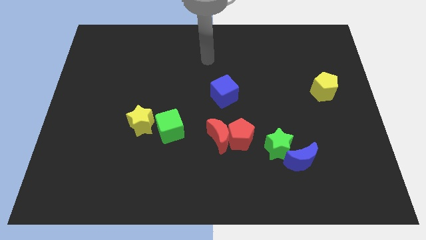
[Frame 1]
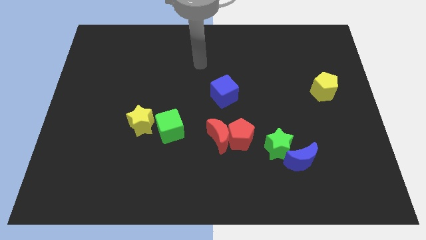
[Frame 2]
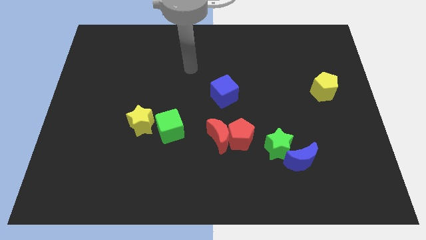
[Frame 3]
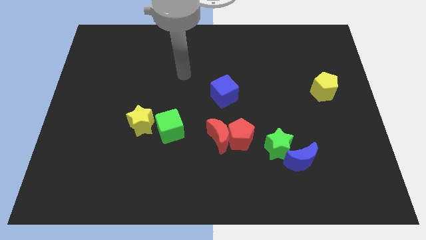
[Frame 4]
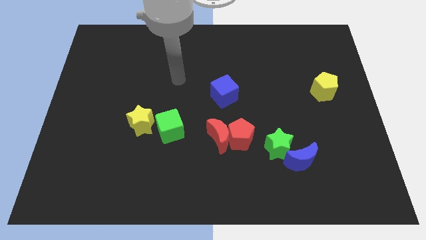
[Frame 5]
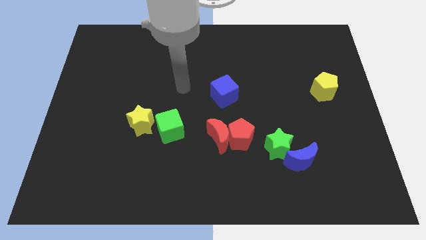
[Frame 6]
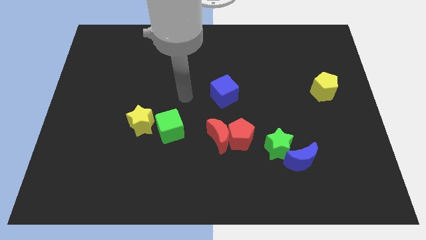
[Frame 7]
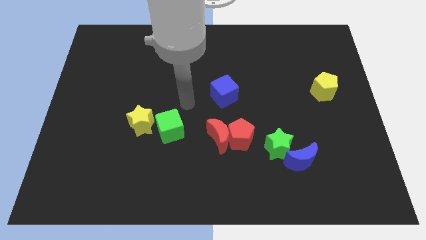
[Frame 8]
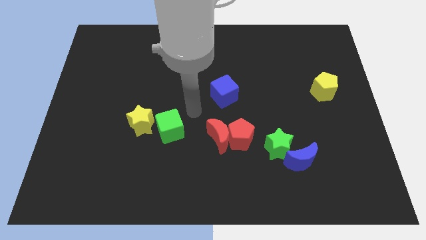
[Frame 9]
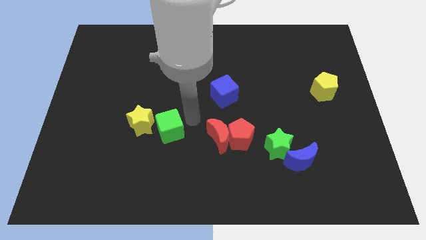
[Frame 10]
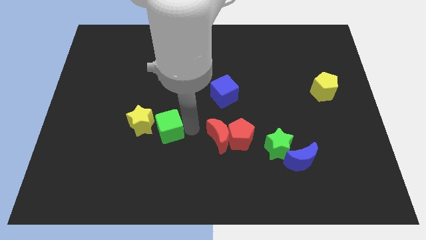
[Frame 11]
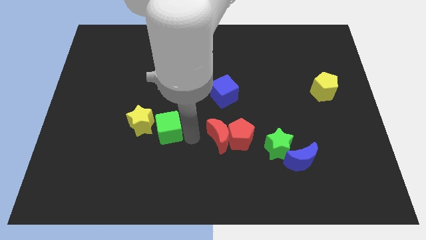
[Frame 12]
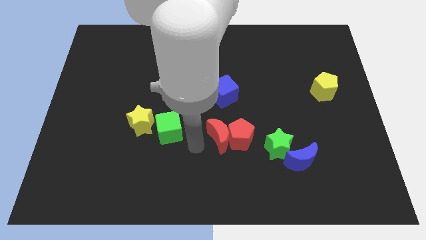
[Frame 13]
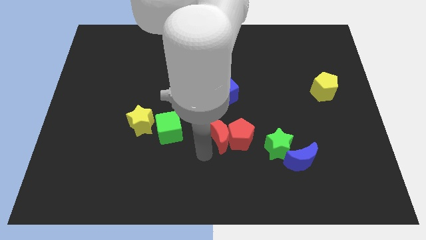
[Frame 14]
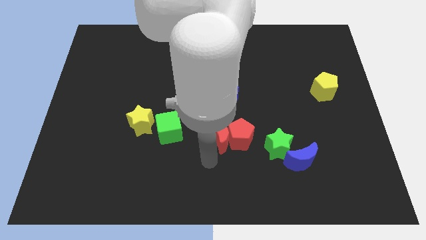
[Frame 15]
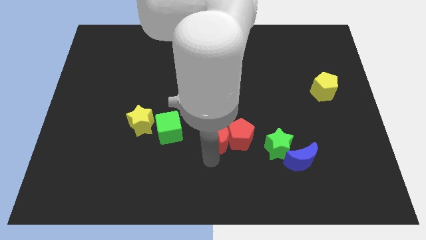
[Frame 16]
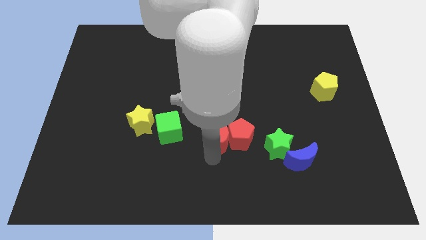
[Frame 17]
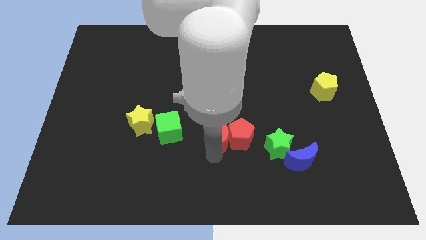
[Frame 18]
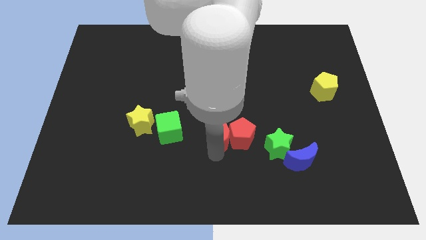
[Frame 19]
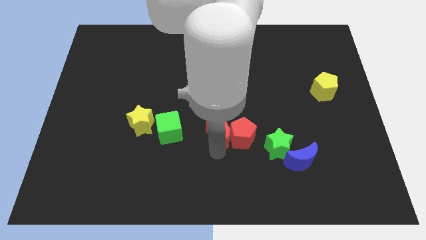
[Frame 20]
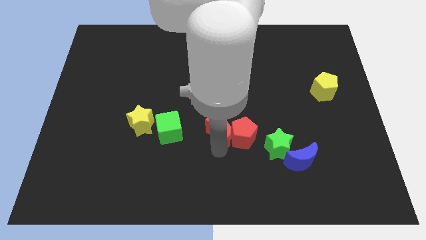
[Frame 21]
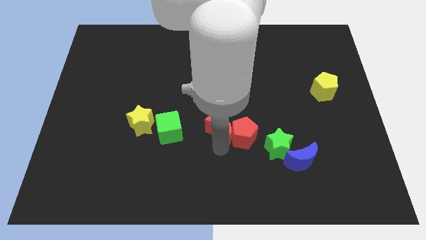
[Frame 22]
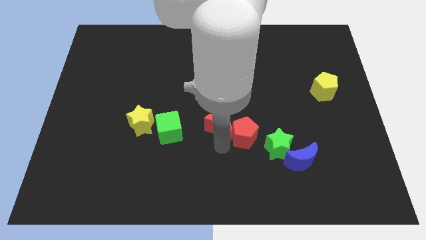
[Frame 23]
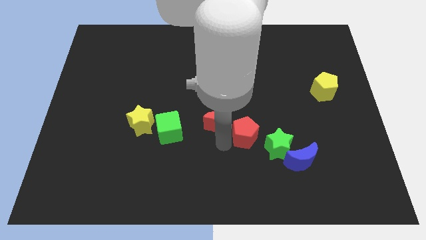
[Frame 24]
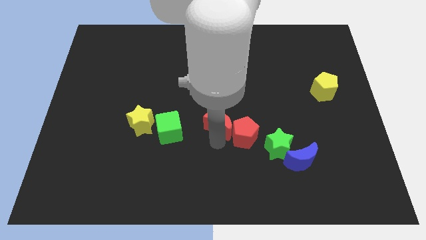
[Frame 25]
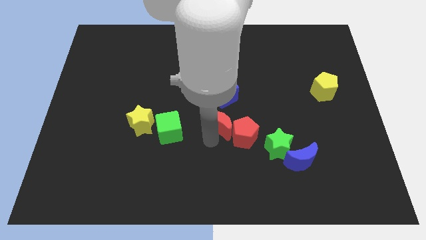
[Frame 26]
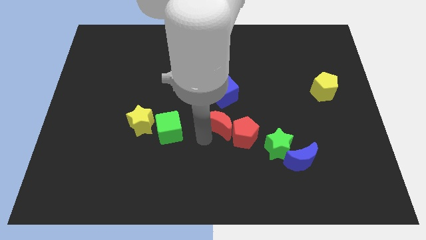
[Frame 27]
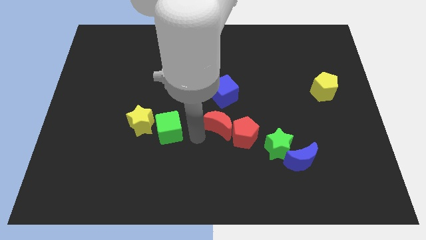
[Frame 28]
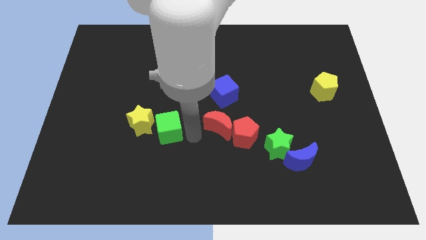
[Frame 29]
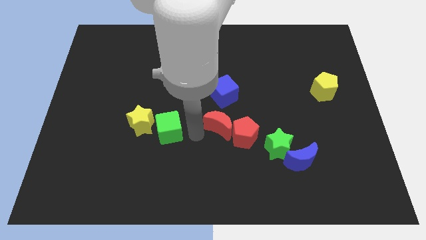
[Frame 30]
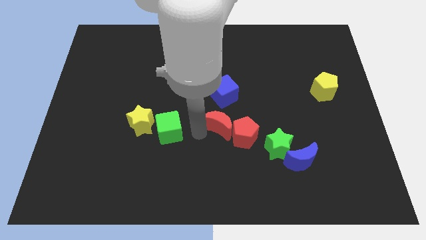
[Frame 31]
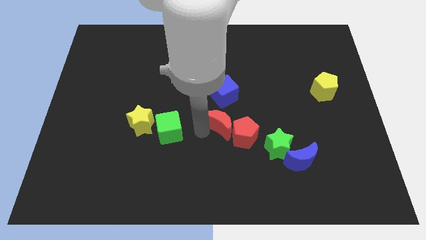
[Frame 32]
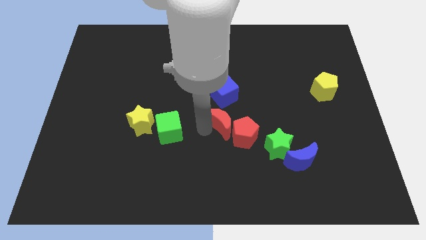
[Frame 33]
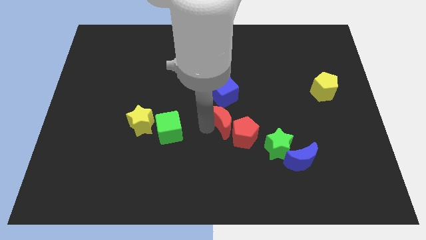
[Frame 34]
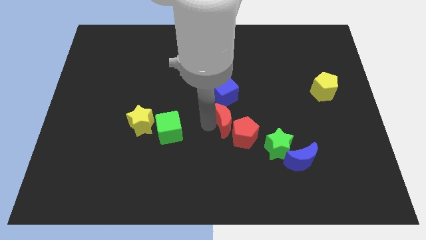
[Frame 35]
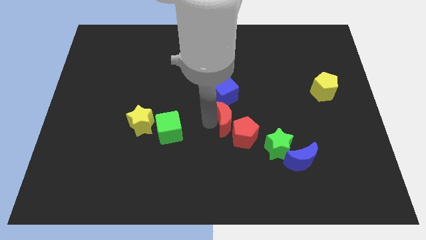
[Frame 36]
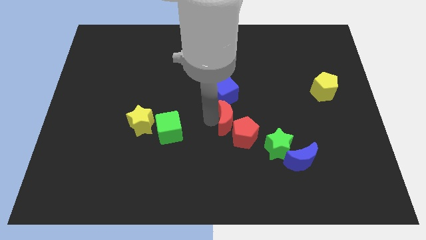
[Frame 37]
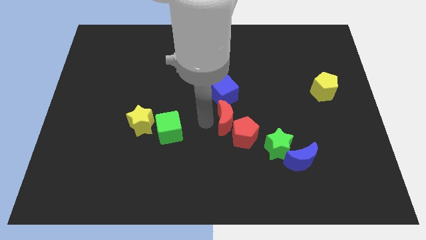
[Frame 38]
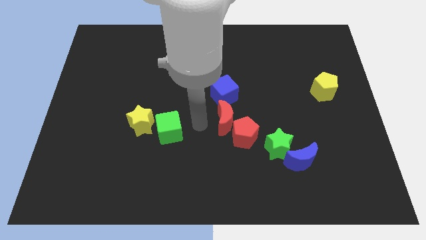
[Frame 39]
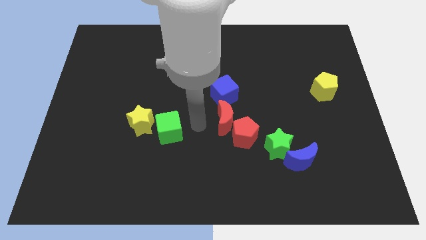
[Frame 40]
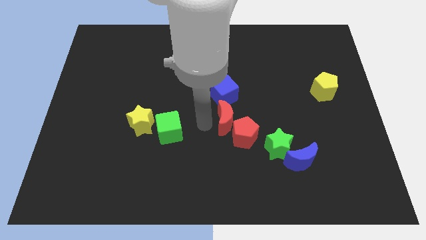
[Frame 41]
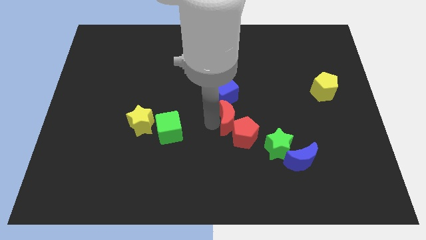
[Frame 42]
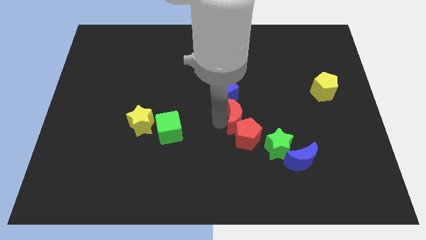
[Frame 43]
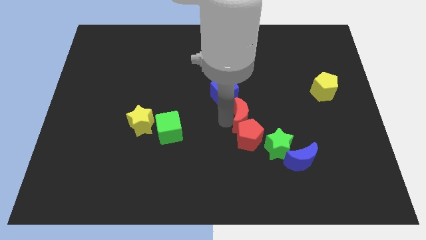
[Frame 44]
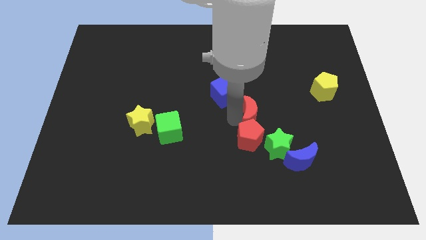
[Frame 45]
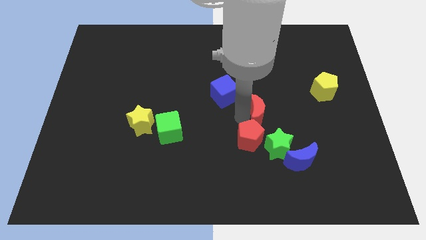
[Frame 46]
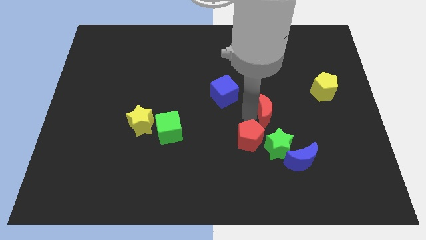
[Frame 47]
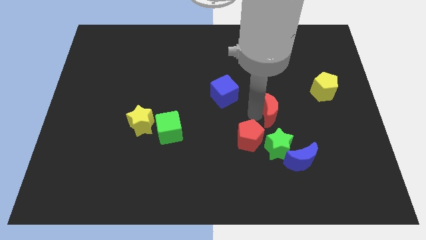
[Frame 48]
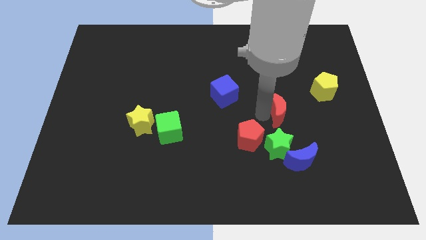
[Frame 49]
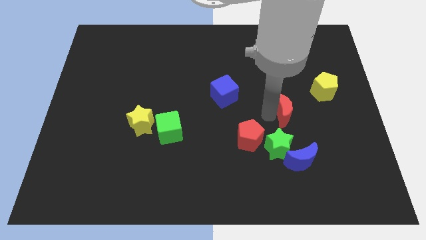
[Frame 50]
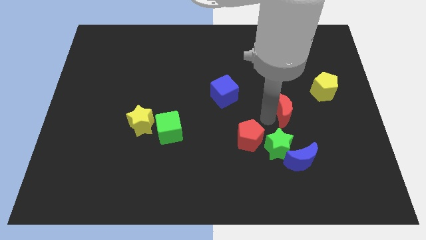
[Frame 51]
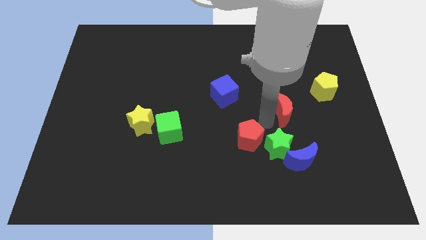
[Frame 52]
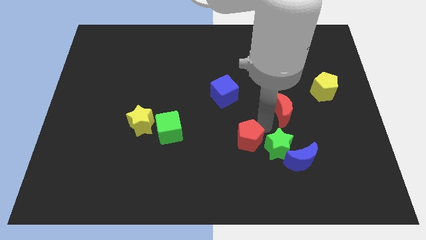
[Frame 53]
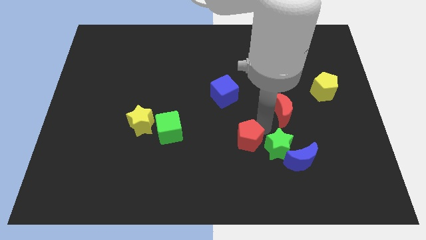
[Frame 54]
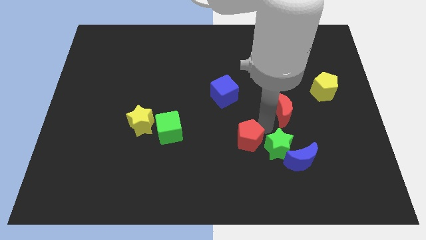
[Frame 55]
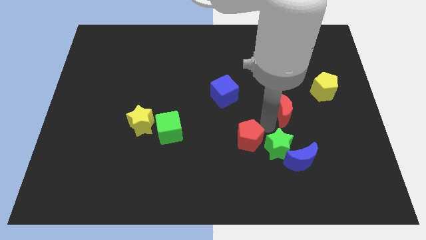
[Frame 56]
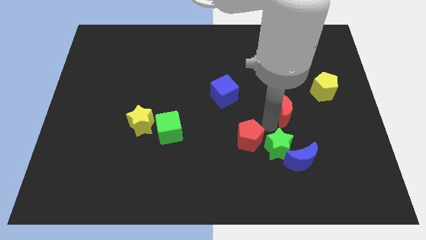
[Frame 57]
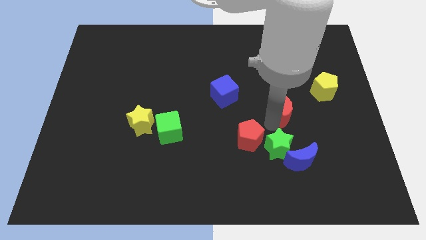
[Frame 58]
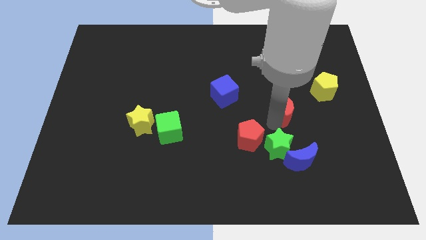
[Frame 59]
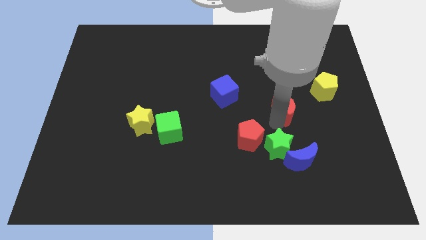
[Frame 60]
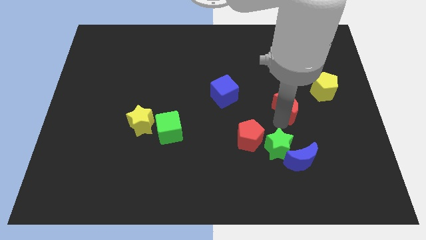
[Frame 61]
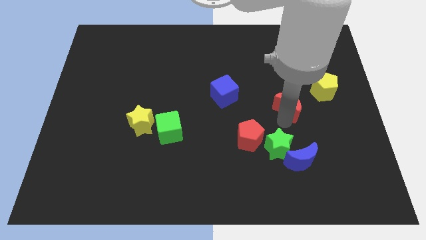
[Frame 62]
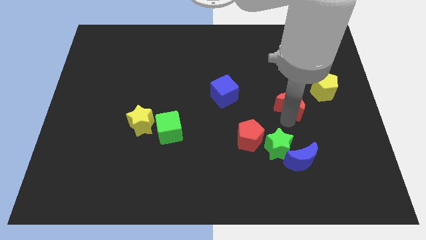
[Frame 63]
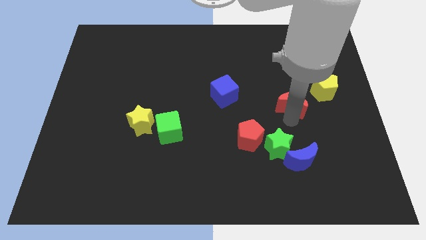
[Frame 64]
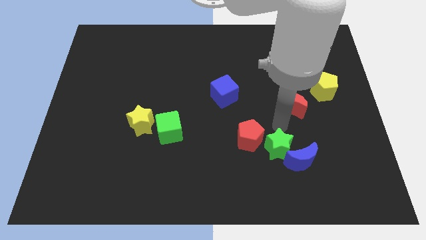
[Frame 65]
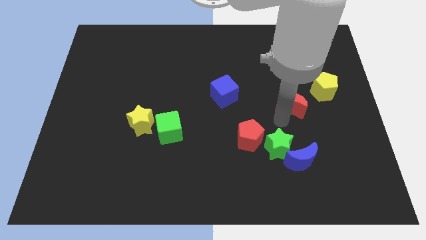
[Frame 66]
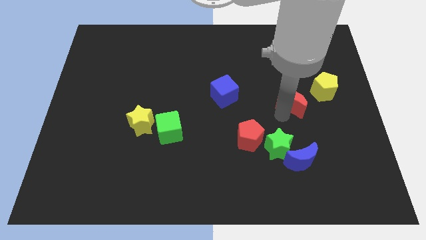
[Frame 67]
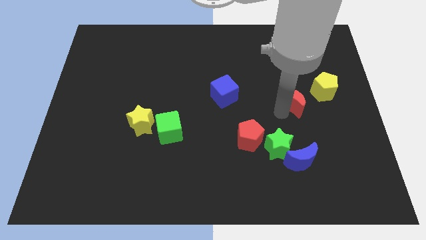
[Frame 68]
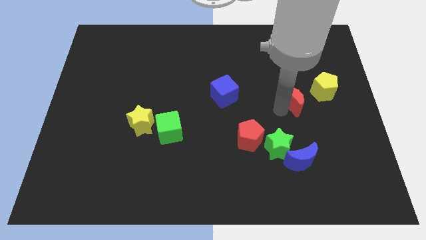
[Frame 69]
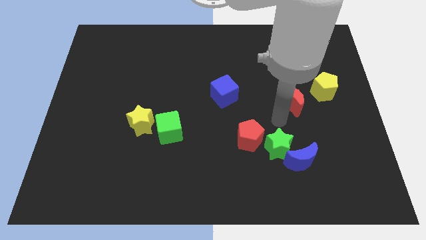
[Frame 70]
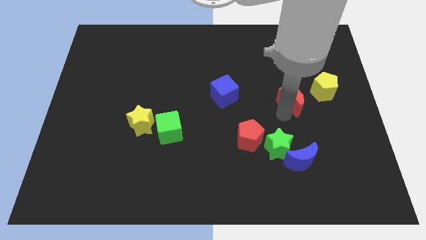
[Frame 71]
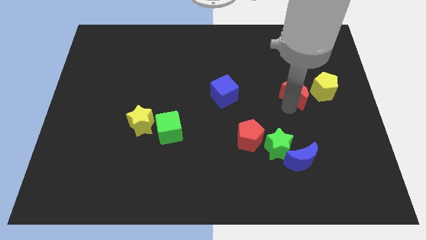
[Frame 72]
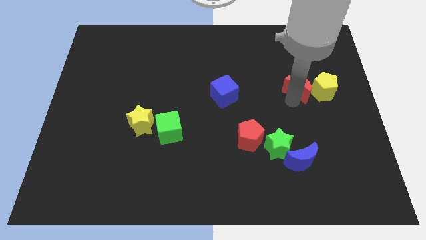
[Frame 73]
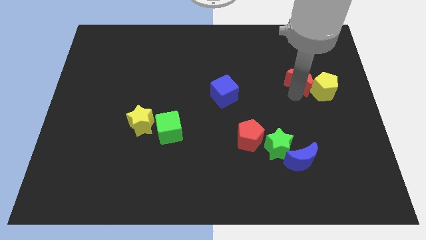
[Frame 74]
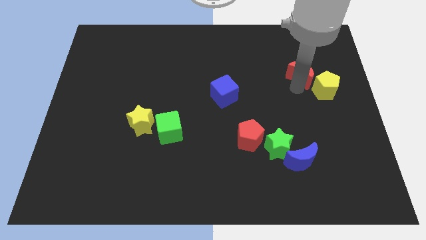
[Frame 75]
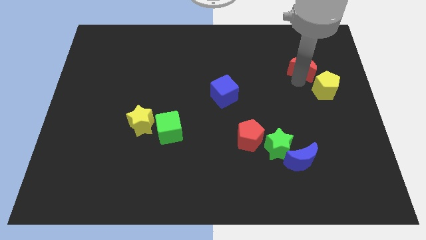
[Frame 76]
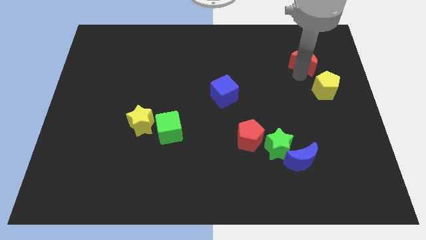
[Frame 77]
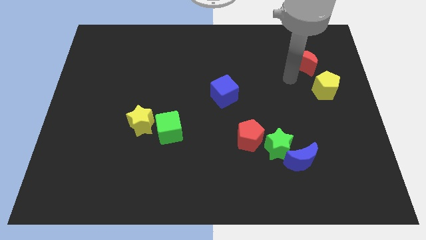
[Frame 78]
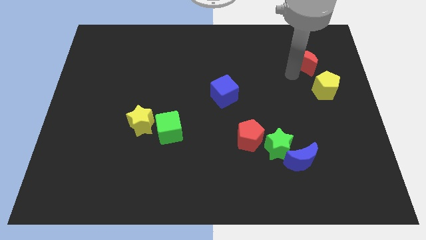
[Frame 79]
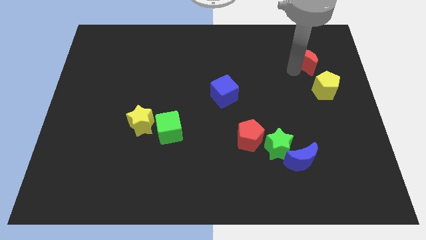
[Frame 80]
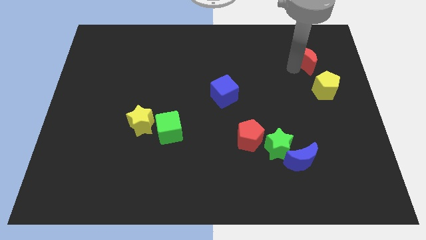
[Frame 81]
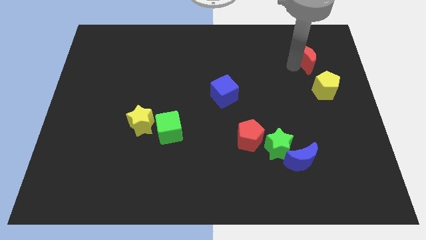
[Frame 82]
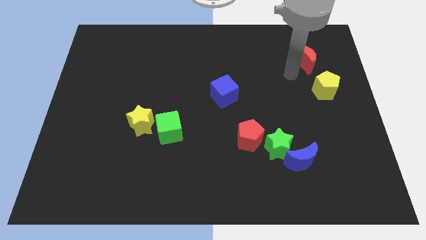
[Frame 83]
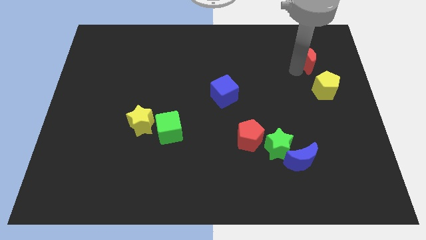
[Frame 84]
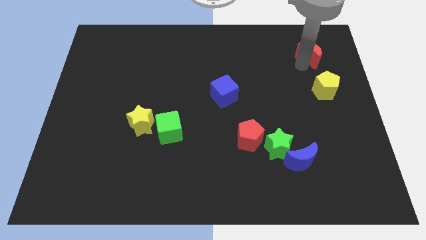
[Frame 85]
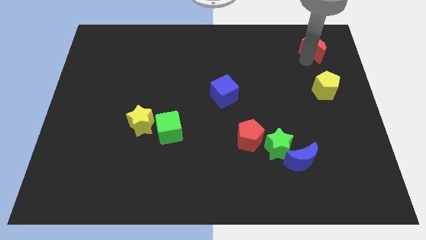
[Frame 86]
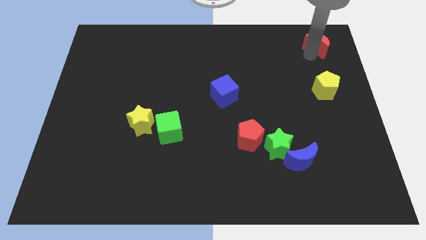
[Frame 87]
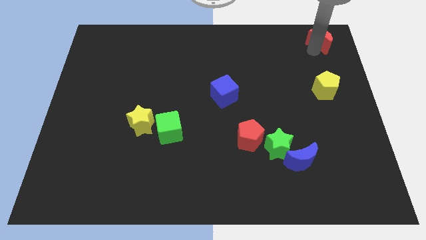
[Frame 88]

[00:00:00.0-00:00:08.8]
move the red moon to the top right of the board
